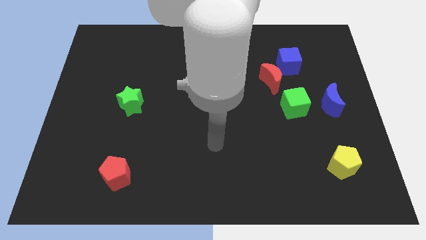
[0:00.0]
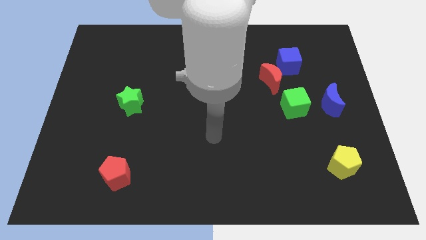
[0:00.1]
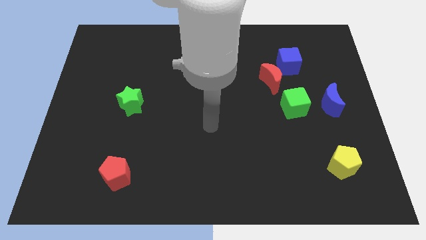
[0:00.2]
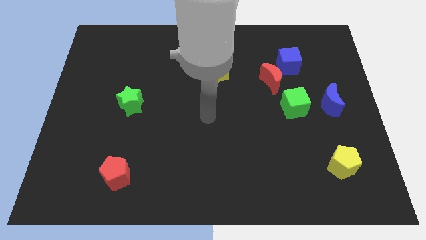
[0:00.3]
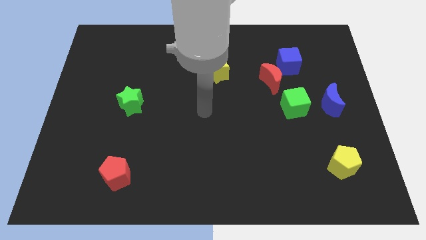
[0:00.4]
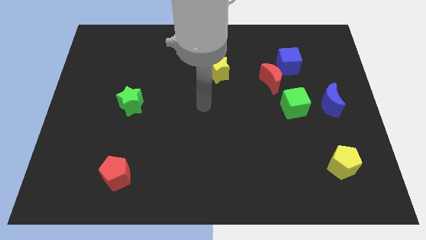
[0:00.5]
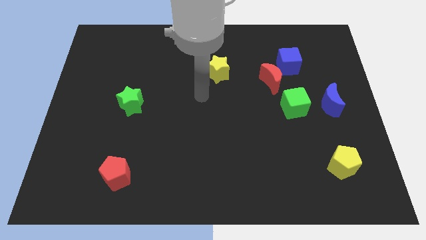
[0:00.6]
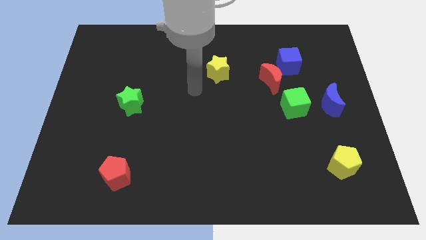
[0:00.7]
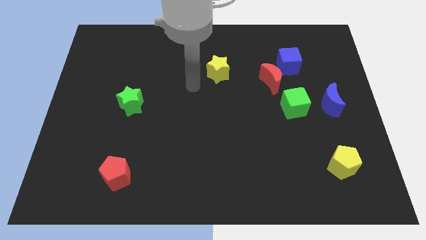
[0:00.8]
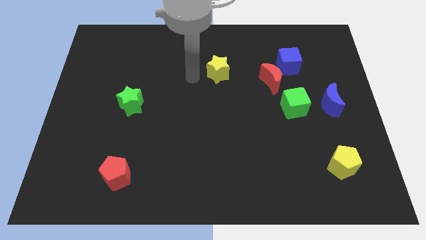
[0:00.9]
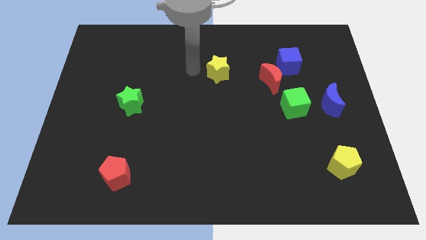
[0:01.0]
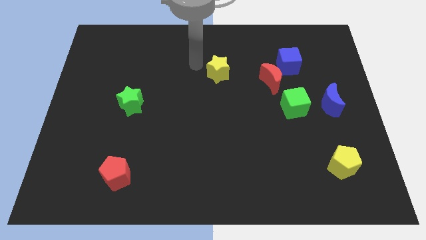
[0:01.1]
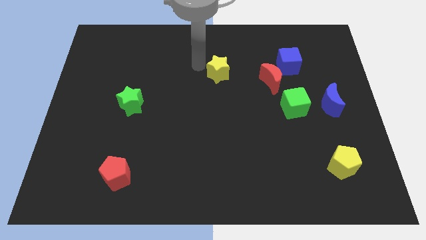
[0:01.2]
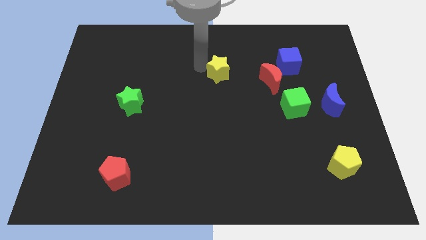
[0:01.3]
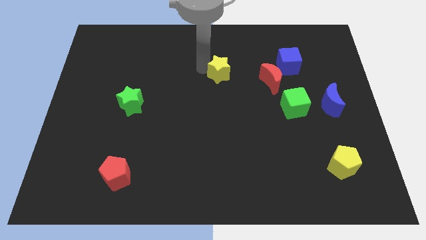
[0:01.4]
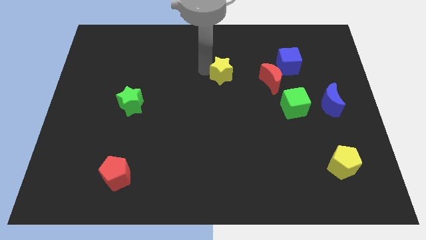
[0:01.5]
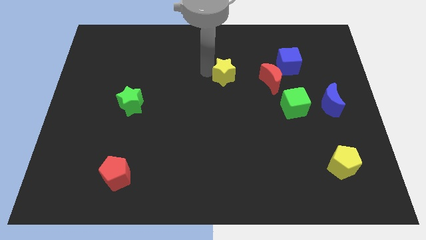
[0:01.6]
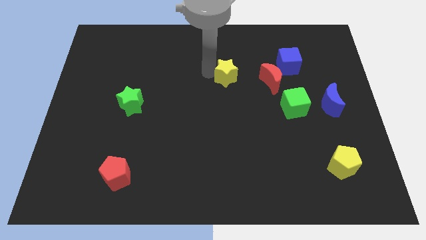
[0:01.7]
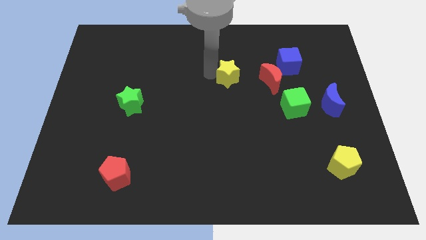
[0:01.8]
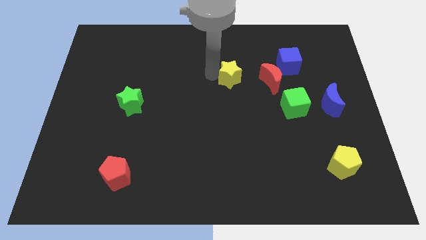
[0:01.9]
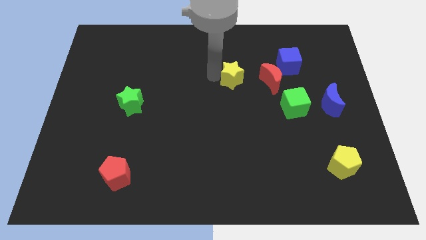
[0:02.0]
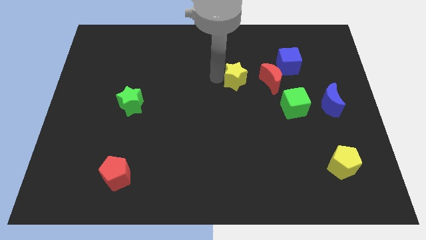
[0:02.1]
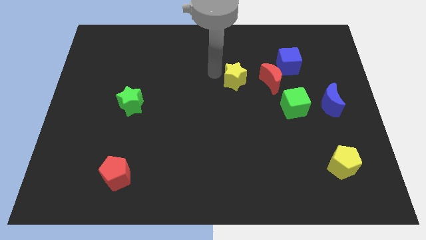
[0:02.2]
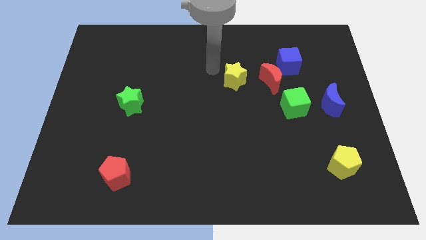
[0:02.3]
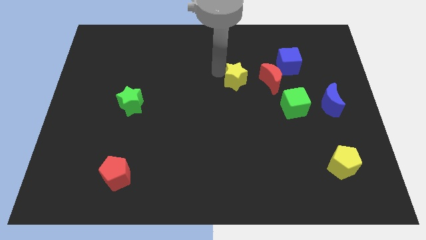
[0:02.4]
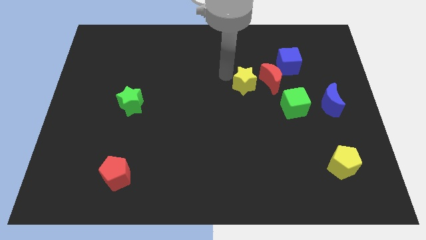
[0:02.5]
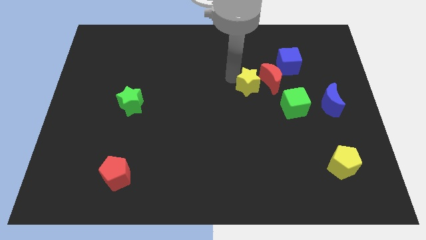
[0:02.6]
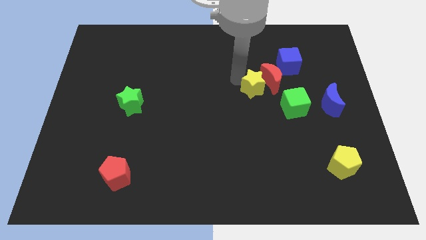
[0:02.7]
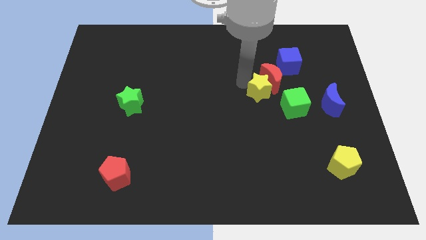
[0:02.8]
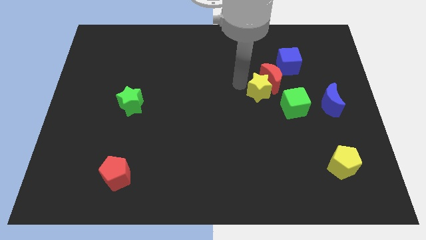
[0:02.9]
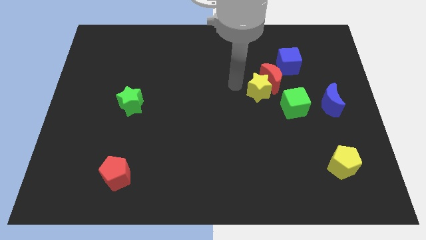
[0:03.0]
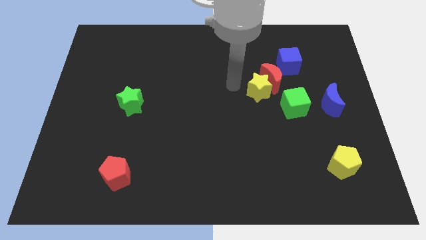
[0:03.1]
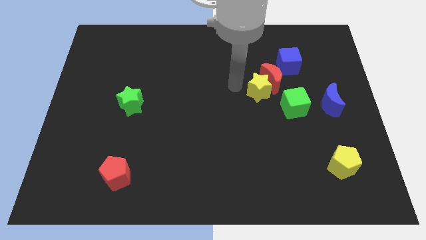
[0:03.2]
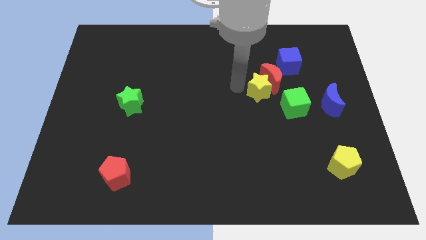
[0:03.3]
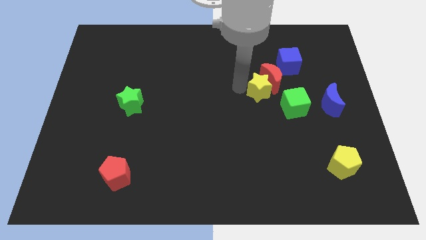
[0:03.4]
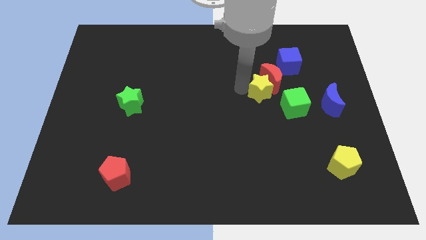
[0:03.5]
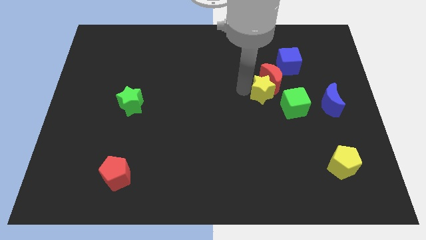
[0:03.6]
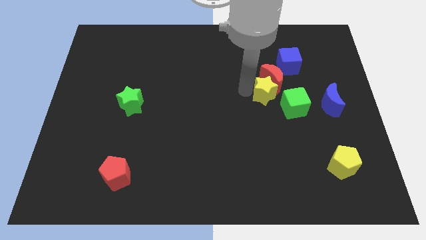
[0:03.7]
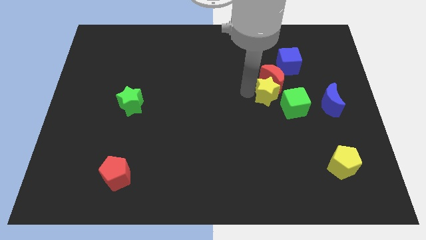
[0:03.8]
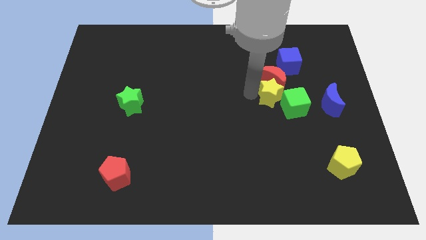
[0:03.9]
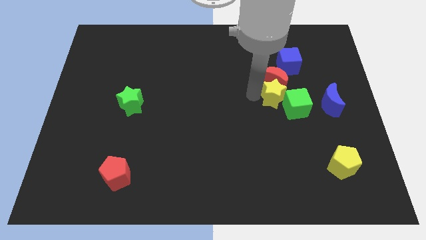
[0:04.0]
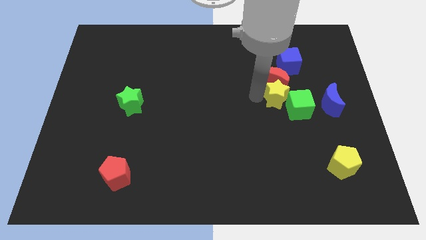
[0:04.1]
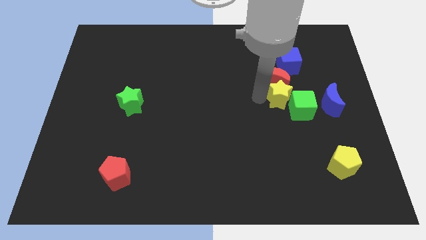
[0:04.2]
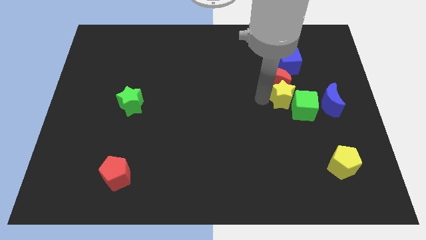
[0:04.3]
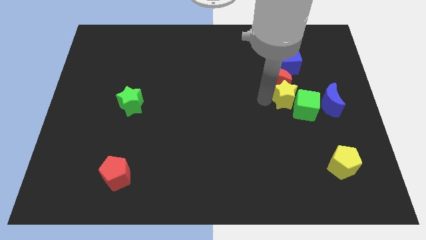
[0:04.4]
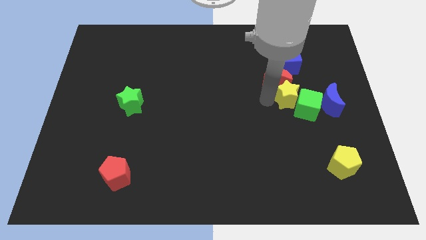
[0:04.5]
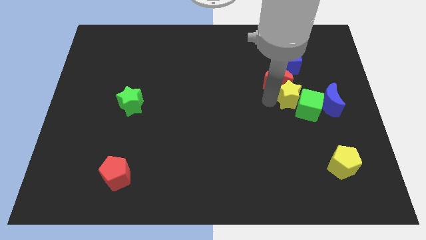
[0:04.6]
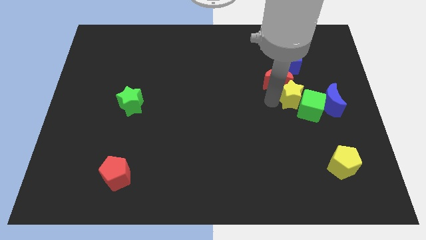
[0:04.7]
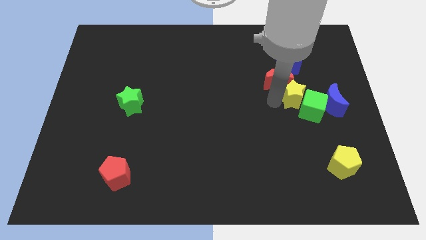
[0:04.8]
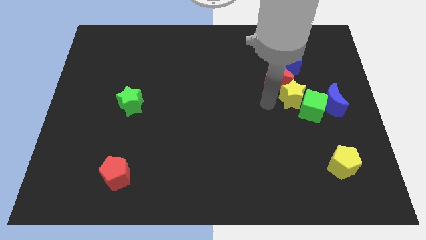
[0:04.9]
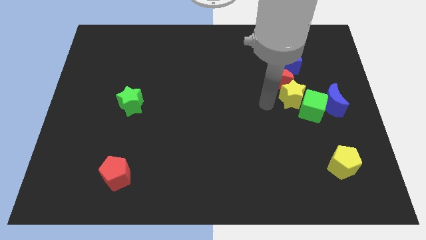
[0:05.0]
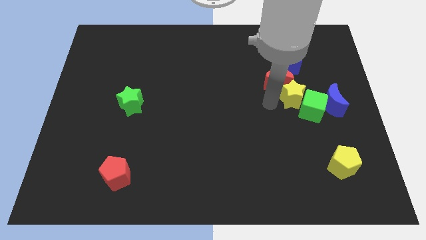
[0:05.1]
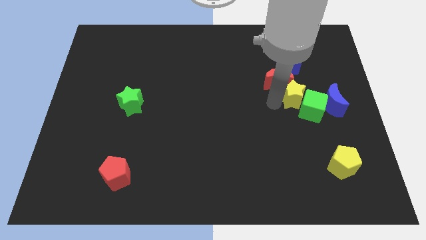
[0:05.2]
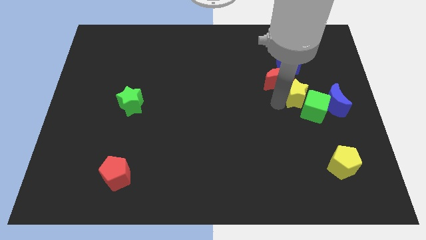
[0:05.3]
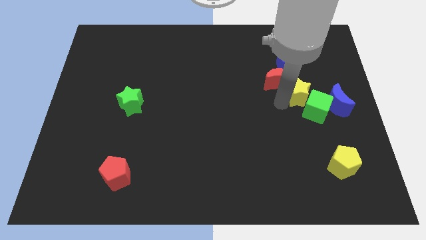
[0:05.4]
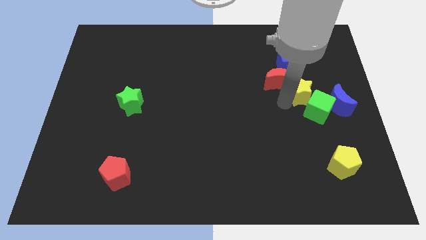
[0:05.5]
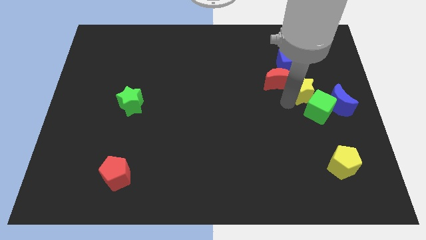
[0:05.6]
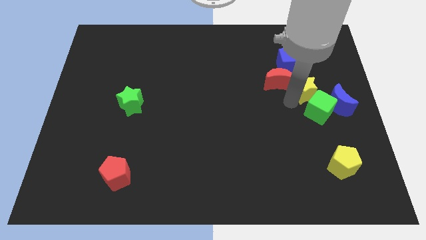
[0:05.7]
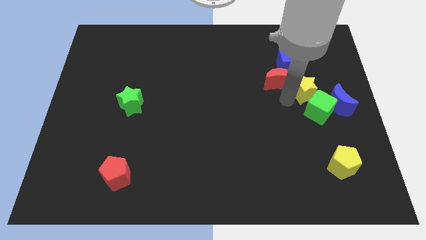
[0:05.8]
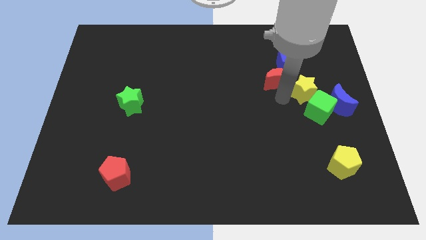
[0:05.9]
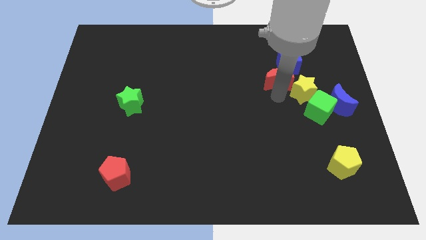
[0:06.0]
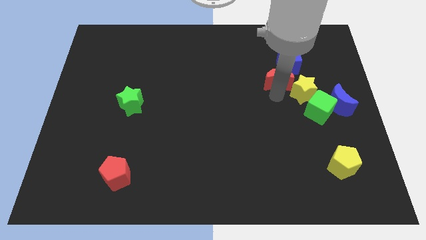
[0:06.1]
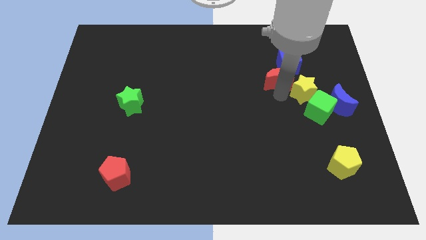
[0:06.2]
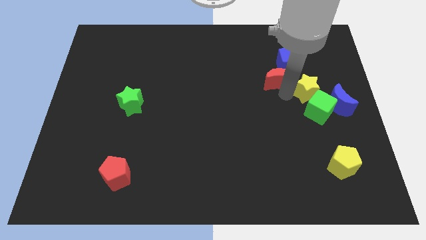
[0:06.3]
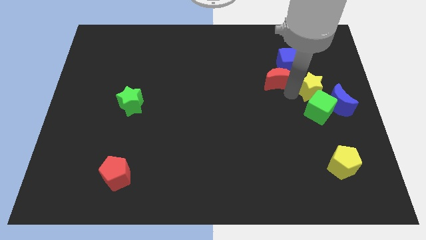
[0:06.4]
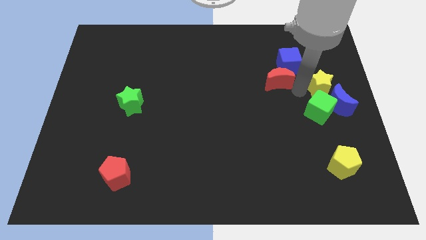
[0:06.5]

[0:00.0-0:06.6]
put the yellow star to the right side

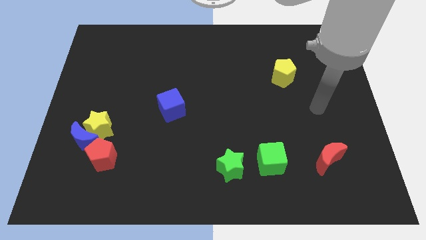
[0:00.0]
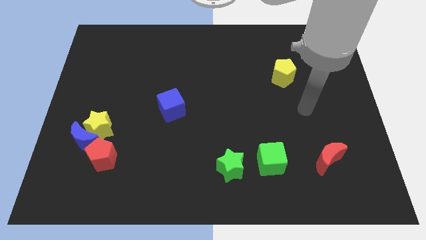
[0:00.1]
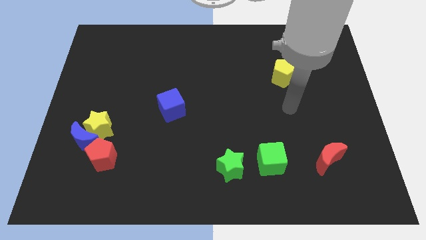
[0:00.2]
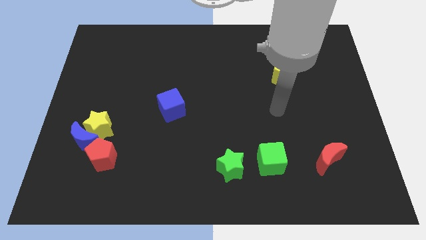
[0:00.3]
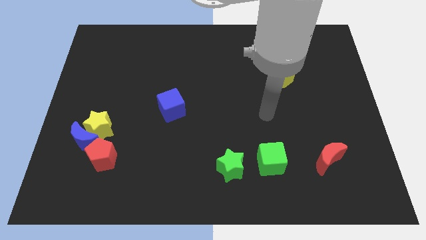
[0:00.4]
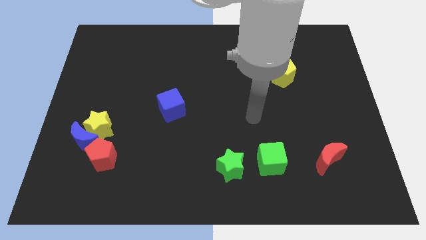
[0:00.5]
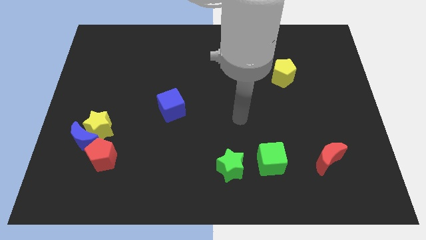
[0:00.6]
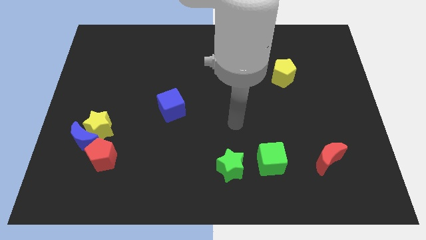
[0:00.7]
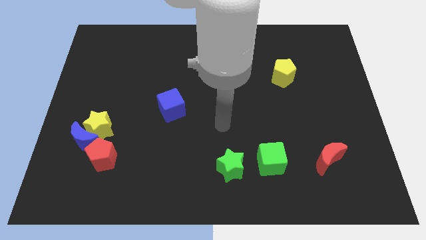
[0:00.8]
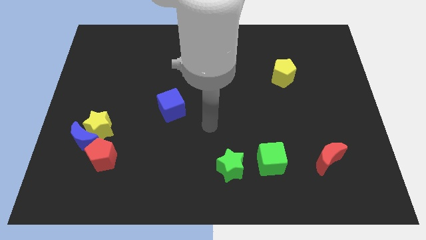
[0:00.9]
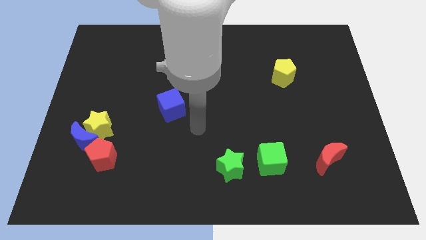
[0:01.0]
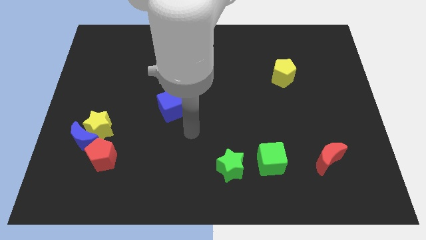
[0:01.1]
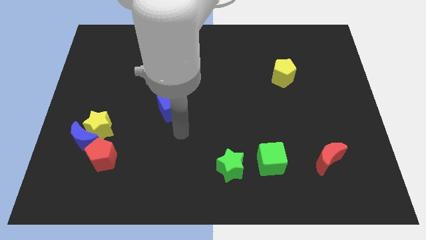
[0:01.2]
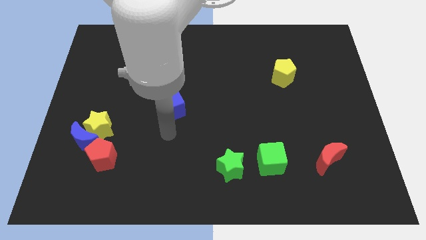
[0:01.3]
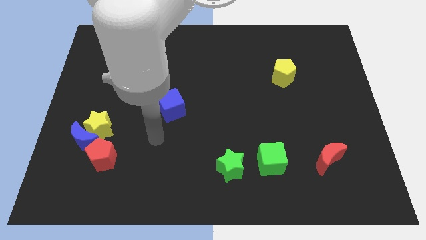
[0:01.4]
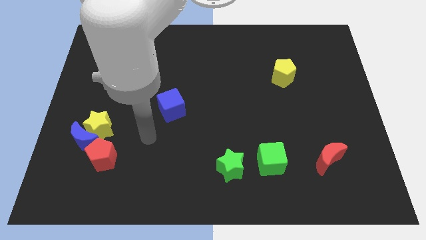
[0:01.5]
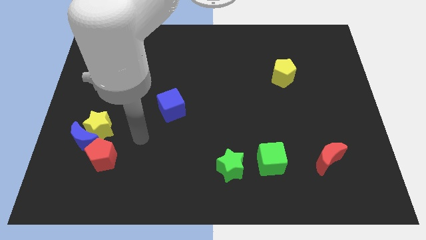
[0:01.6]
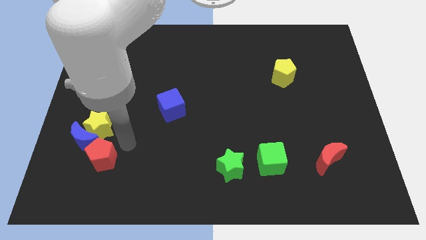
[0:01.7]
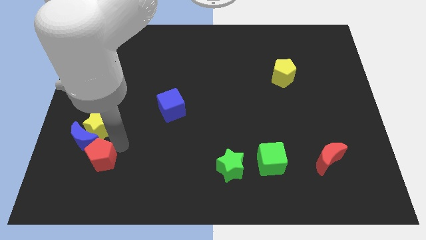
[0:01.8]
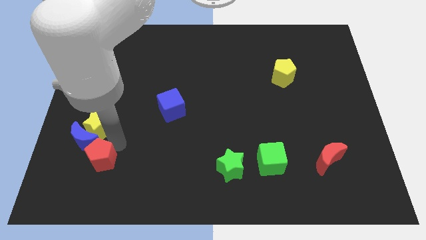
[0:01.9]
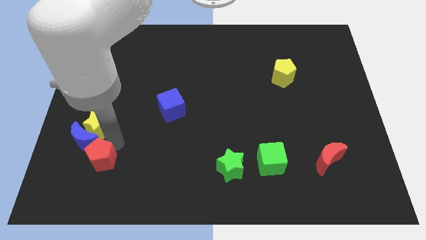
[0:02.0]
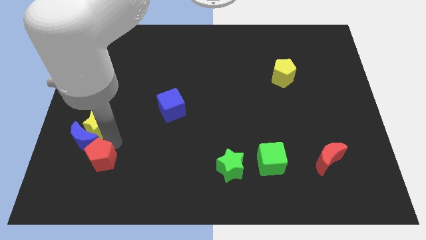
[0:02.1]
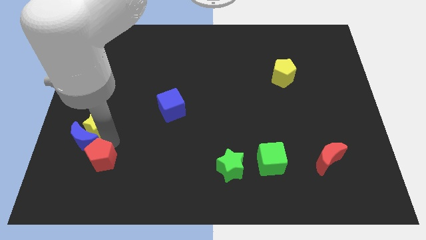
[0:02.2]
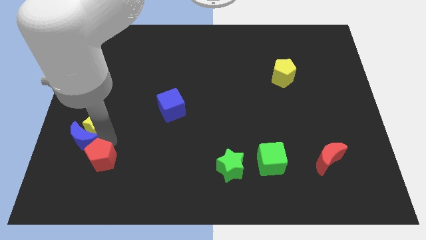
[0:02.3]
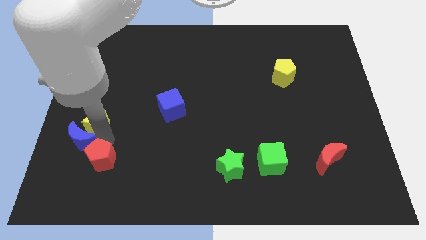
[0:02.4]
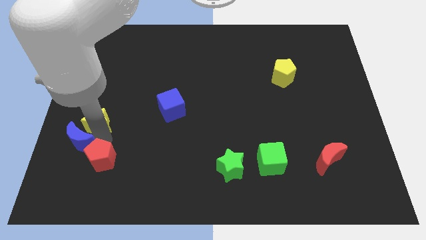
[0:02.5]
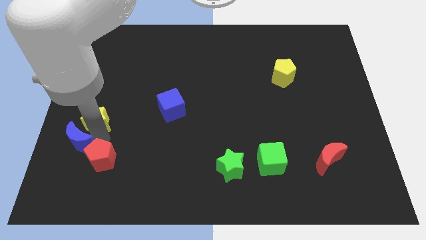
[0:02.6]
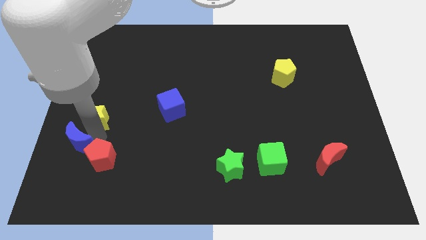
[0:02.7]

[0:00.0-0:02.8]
put the yellow star to the left side
